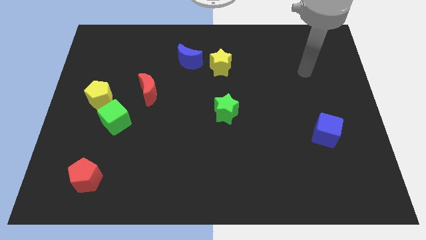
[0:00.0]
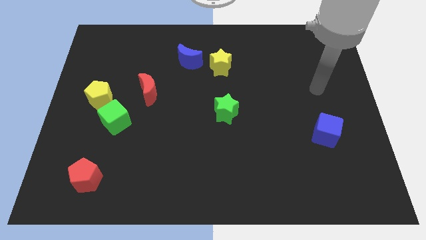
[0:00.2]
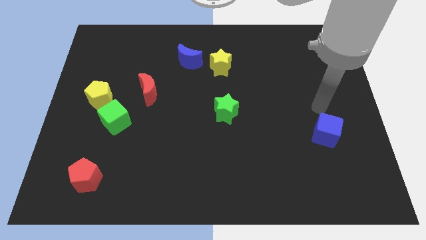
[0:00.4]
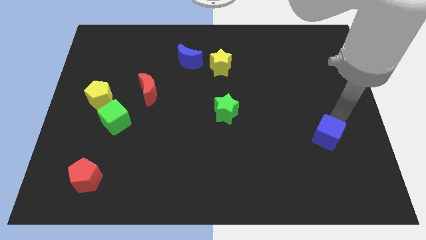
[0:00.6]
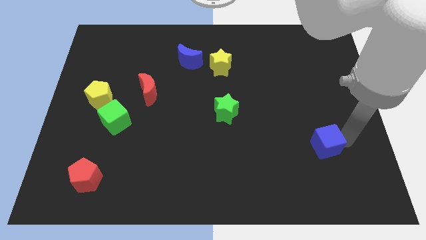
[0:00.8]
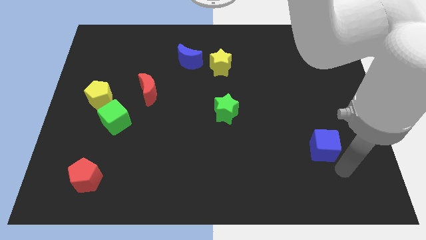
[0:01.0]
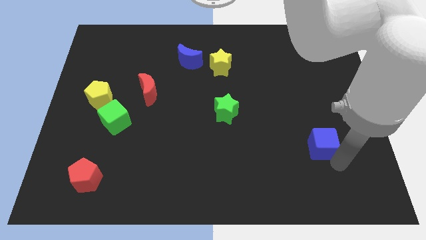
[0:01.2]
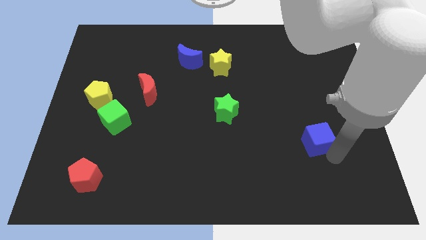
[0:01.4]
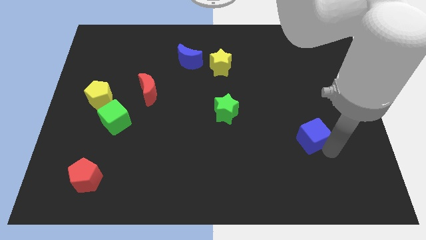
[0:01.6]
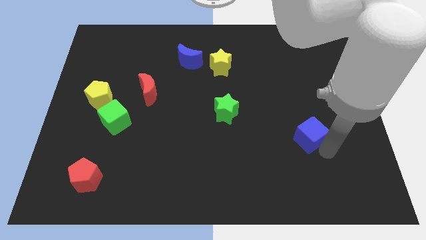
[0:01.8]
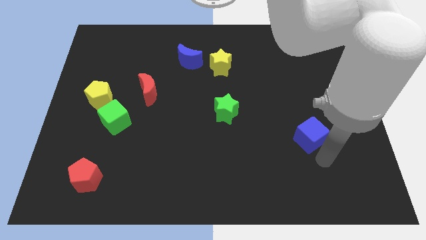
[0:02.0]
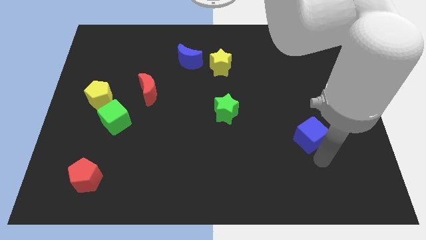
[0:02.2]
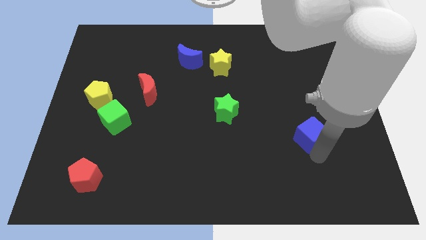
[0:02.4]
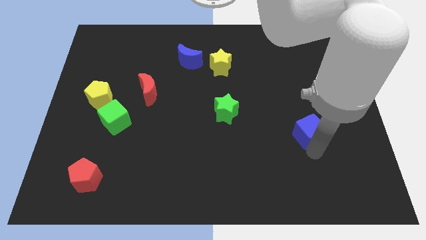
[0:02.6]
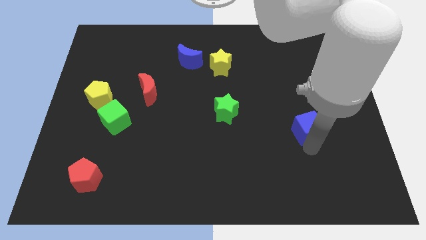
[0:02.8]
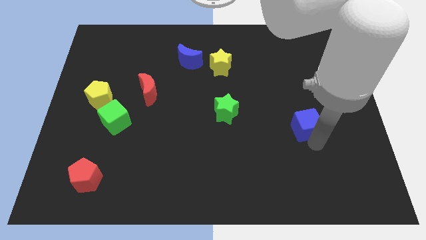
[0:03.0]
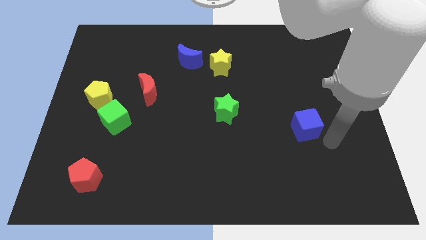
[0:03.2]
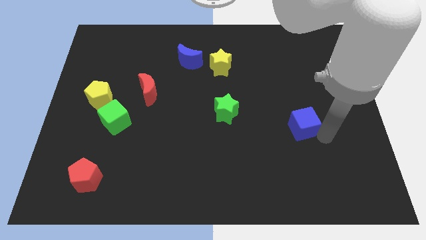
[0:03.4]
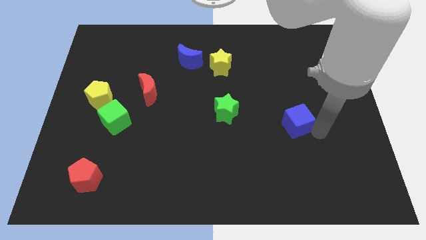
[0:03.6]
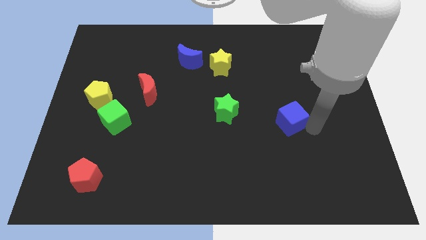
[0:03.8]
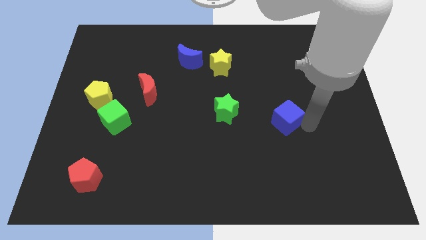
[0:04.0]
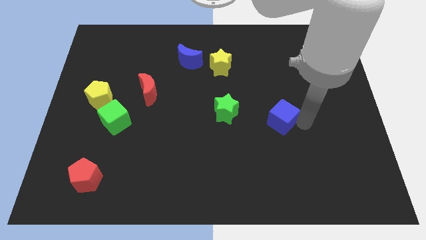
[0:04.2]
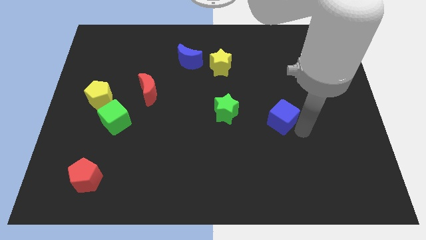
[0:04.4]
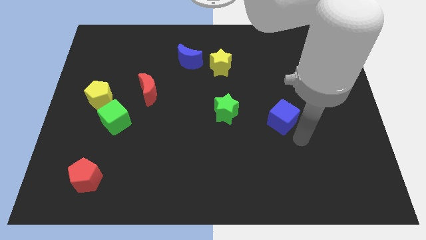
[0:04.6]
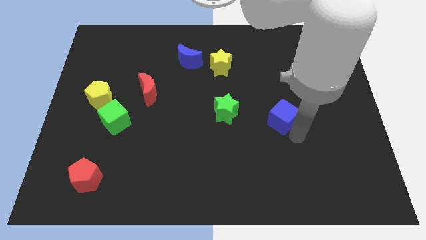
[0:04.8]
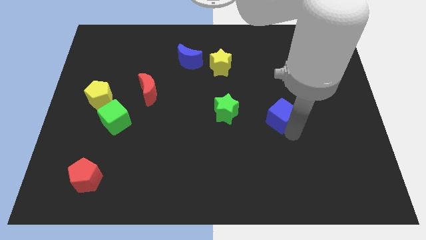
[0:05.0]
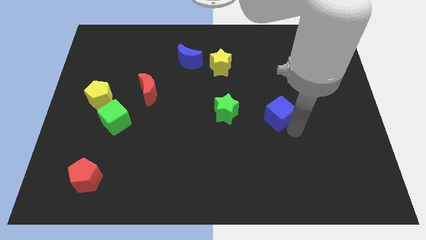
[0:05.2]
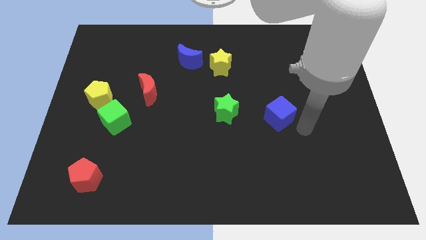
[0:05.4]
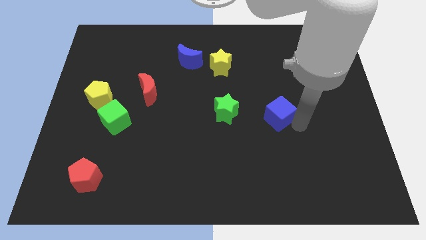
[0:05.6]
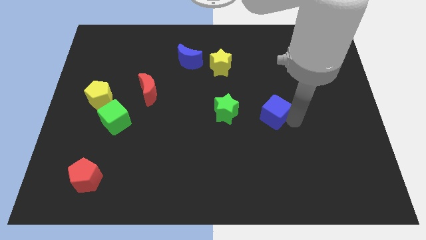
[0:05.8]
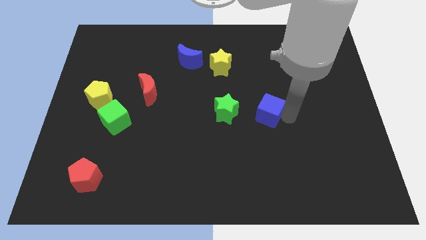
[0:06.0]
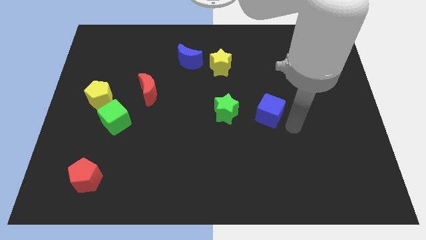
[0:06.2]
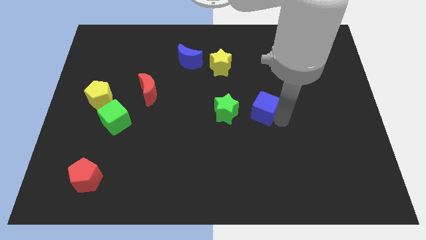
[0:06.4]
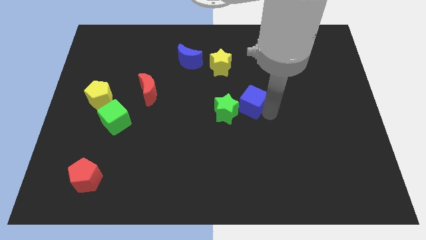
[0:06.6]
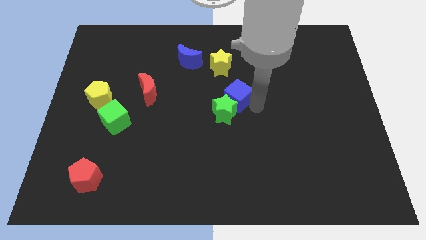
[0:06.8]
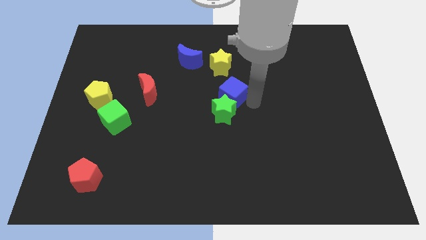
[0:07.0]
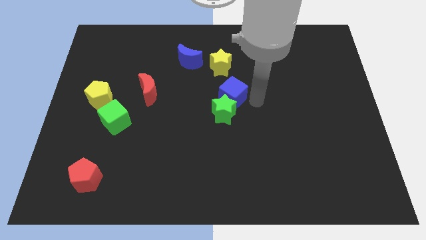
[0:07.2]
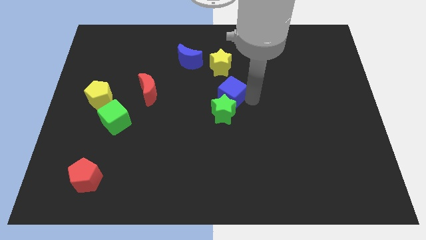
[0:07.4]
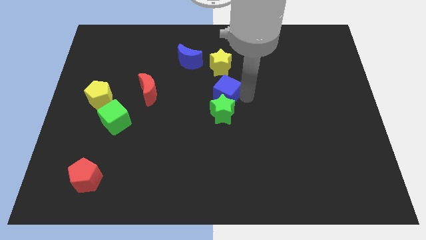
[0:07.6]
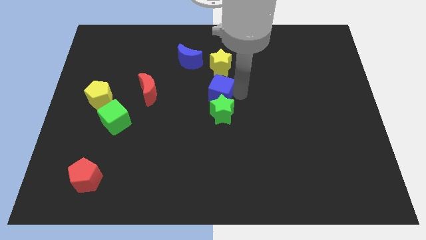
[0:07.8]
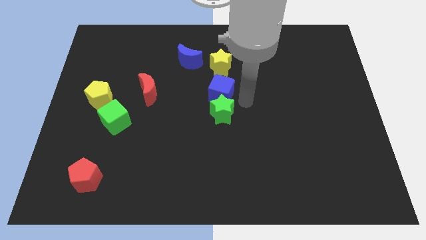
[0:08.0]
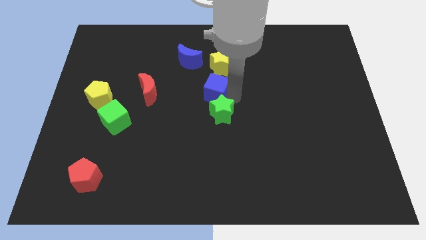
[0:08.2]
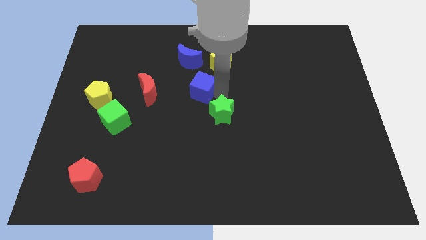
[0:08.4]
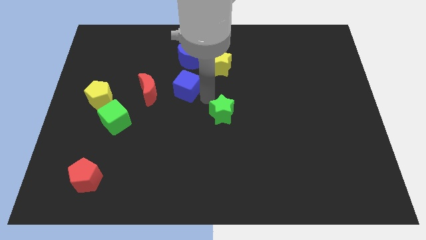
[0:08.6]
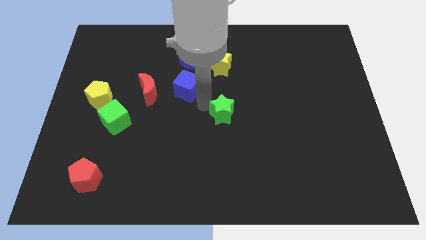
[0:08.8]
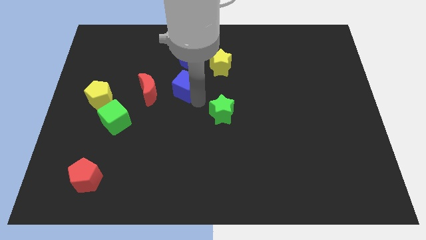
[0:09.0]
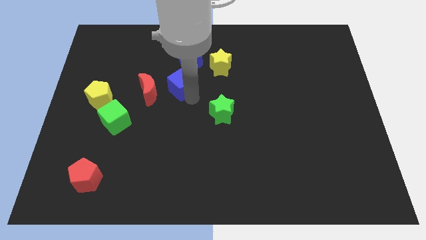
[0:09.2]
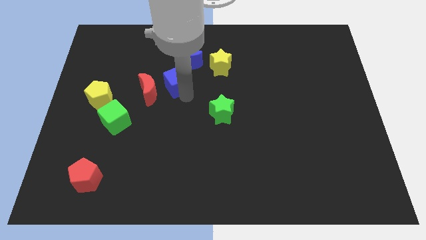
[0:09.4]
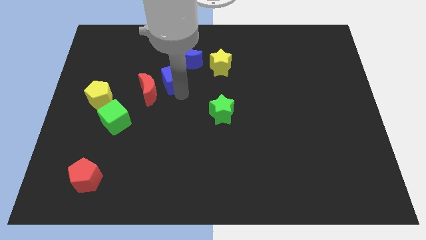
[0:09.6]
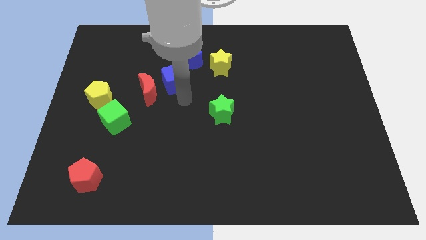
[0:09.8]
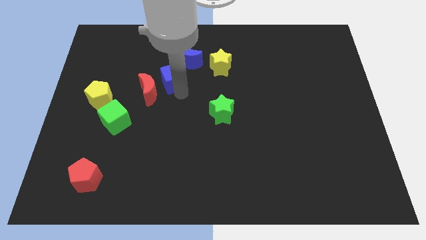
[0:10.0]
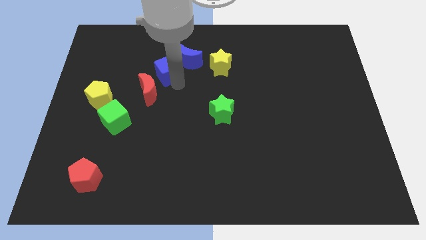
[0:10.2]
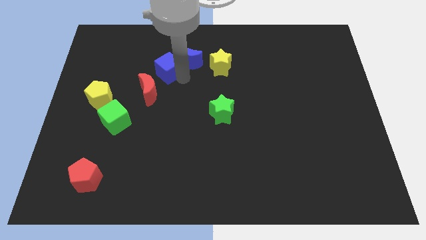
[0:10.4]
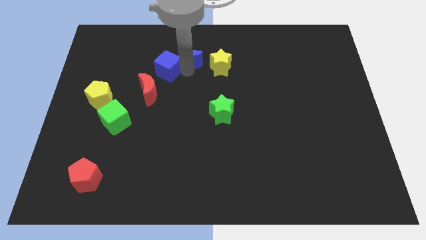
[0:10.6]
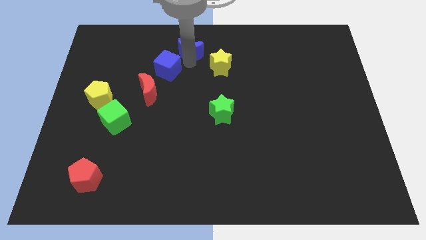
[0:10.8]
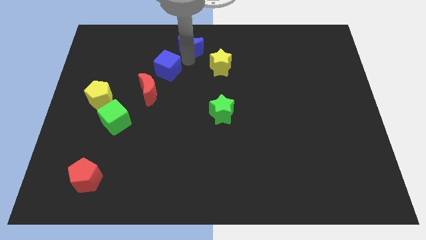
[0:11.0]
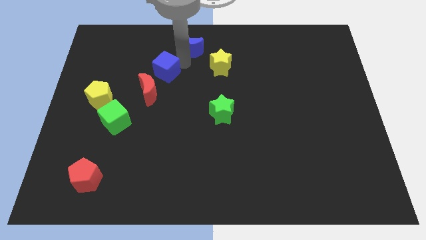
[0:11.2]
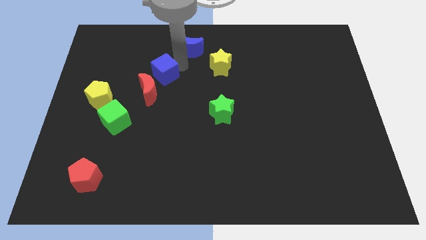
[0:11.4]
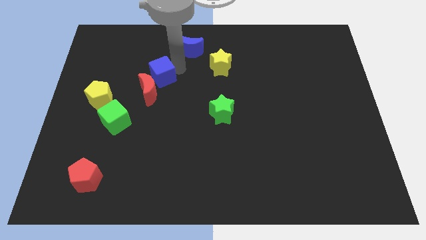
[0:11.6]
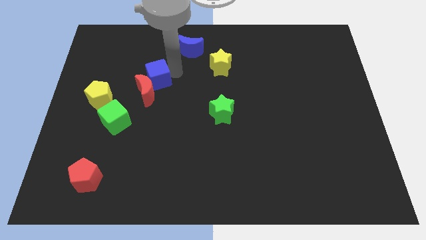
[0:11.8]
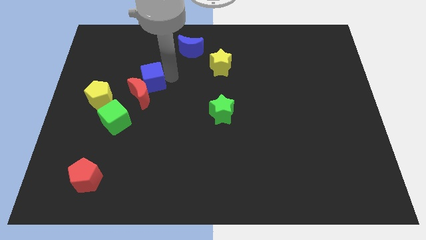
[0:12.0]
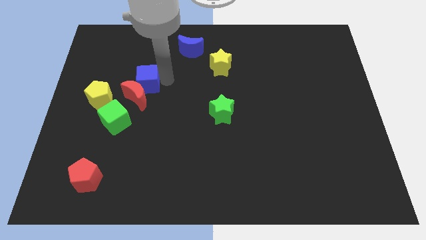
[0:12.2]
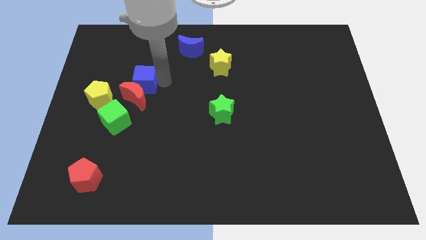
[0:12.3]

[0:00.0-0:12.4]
put the blue cube to the top right side of the yellow pentagon
